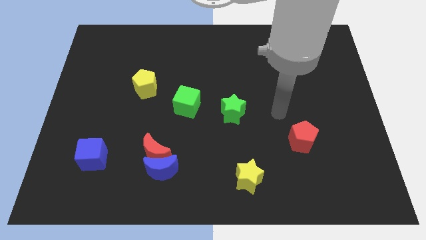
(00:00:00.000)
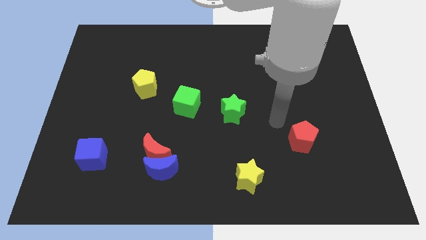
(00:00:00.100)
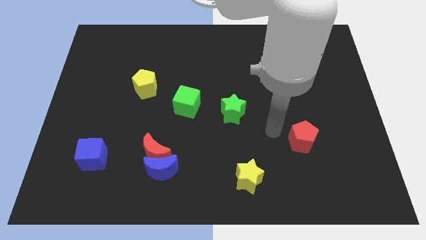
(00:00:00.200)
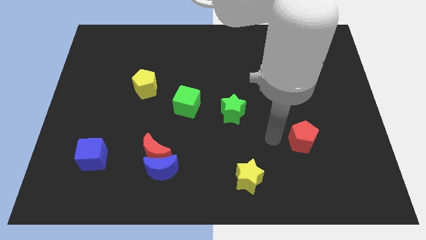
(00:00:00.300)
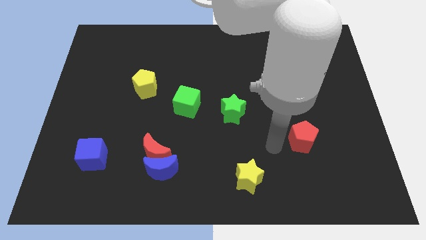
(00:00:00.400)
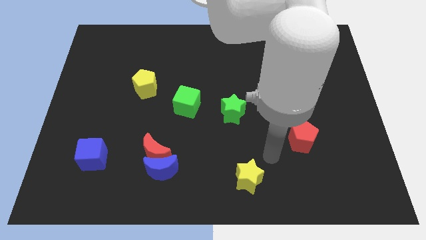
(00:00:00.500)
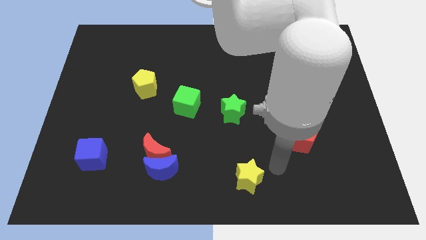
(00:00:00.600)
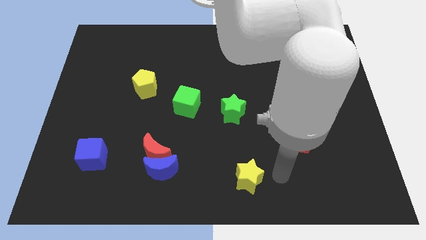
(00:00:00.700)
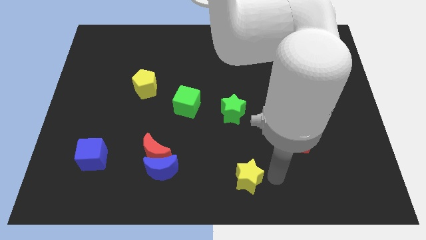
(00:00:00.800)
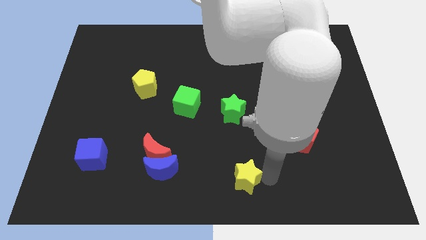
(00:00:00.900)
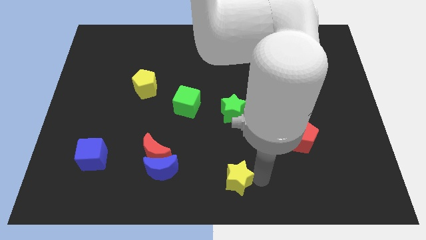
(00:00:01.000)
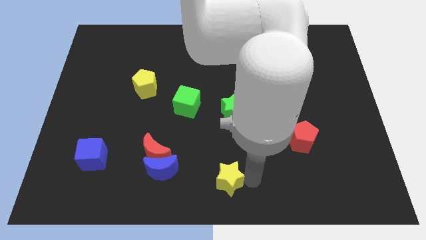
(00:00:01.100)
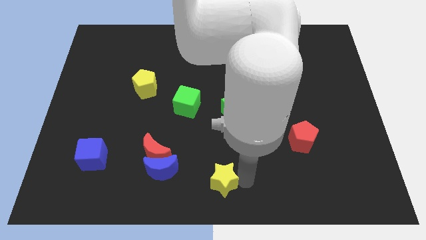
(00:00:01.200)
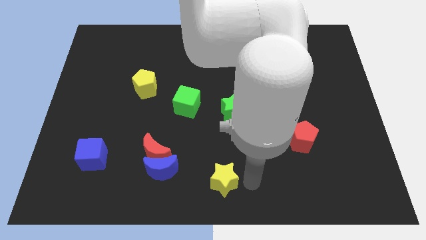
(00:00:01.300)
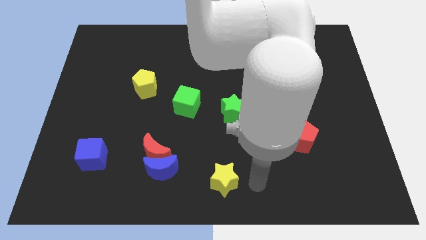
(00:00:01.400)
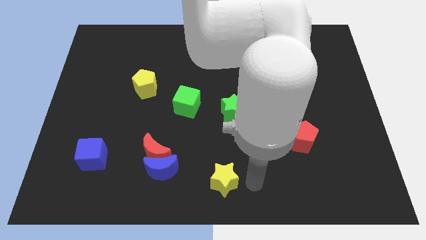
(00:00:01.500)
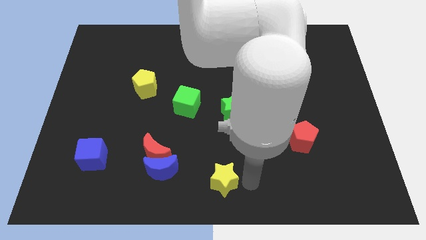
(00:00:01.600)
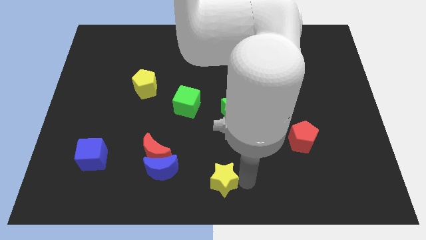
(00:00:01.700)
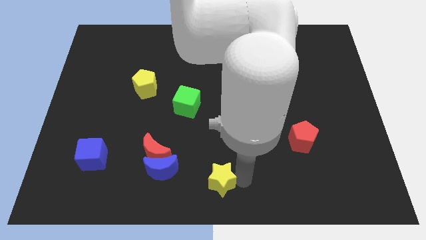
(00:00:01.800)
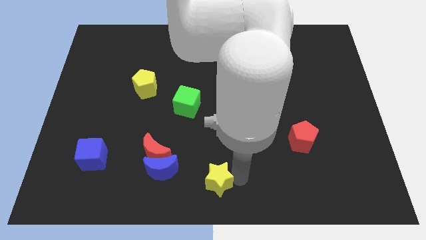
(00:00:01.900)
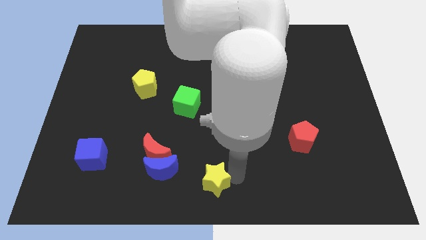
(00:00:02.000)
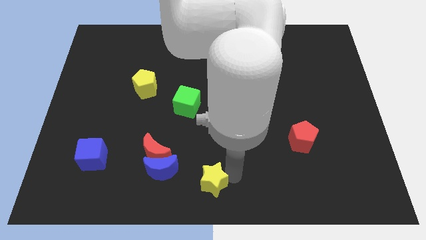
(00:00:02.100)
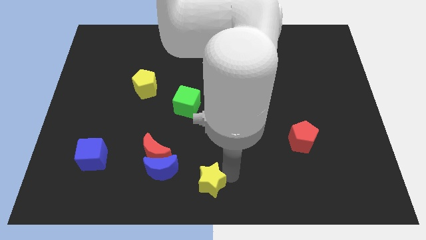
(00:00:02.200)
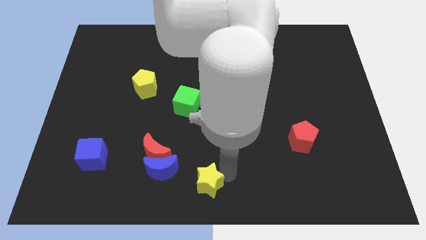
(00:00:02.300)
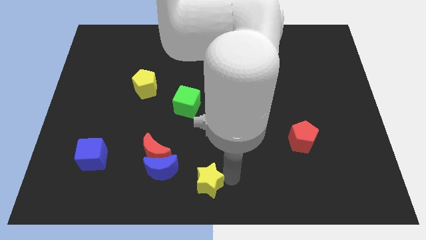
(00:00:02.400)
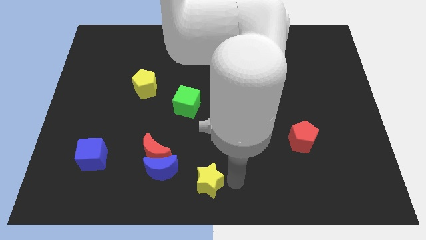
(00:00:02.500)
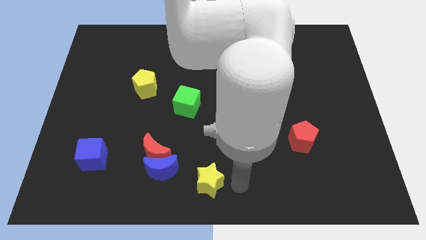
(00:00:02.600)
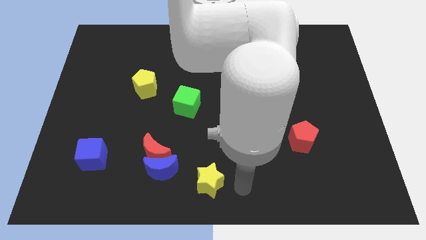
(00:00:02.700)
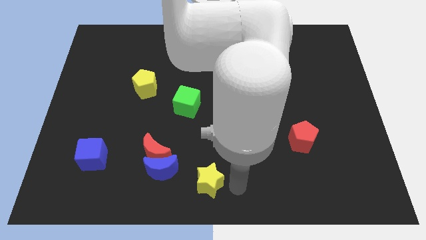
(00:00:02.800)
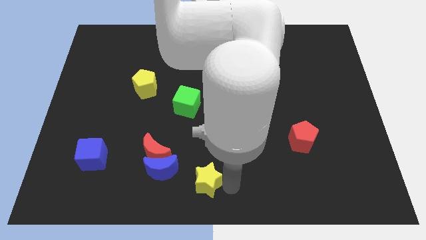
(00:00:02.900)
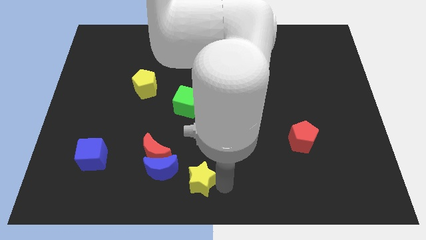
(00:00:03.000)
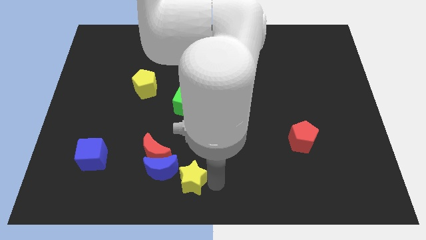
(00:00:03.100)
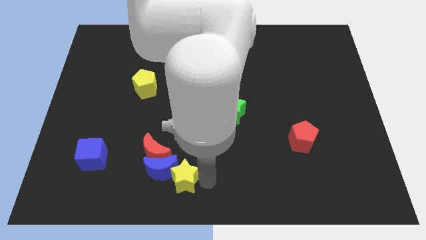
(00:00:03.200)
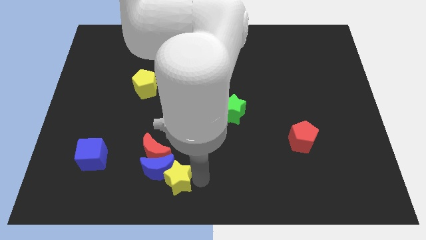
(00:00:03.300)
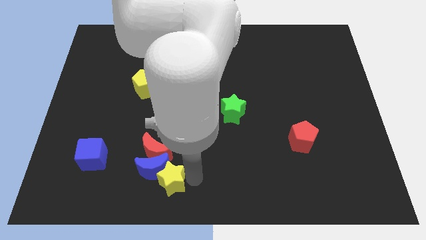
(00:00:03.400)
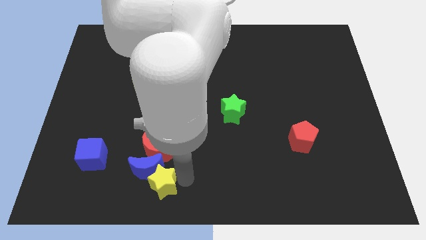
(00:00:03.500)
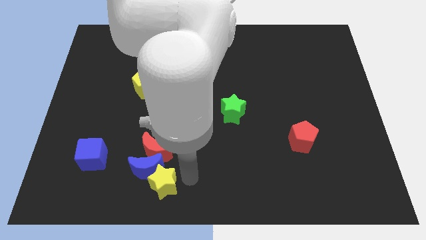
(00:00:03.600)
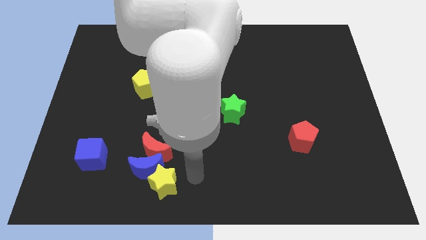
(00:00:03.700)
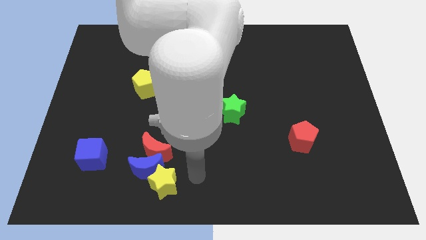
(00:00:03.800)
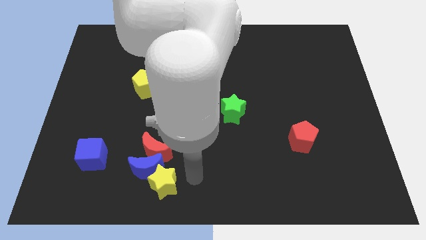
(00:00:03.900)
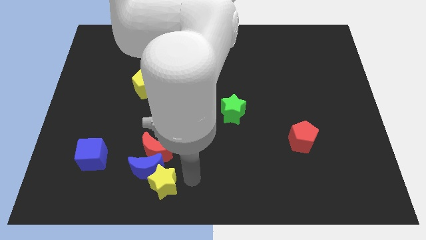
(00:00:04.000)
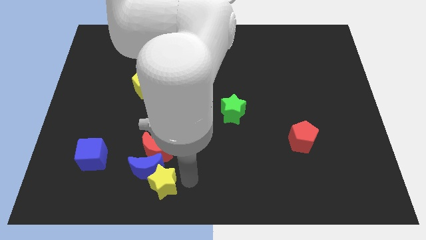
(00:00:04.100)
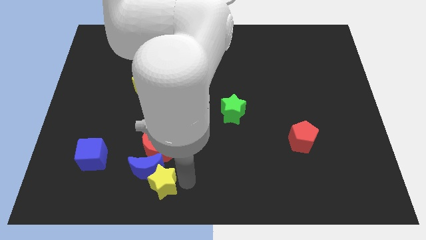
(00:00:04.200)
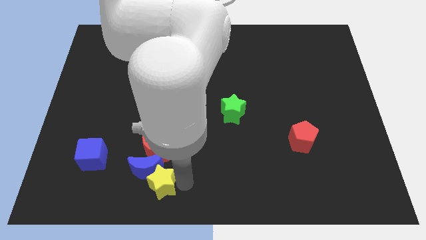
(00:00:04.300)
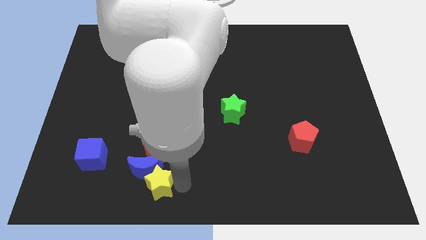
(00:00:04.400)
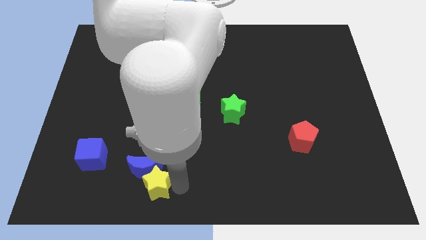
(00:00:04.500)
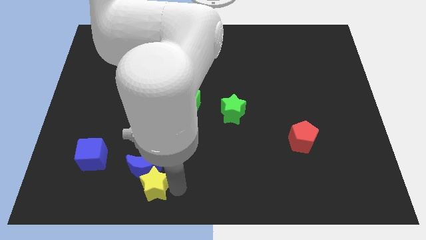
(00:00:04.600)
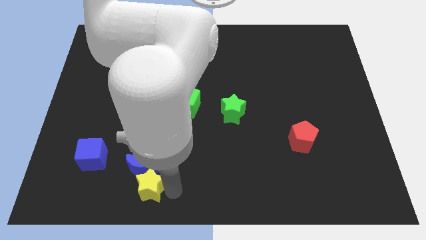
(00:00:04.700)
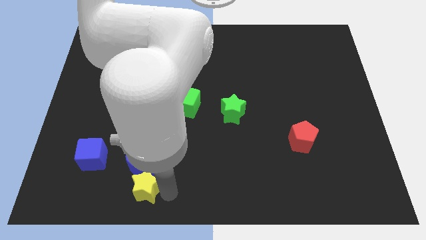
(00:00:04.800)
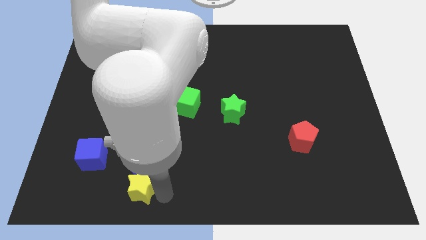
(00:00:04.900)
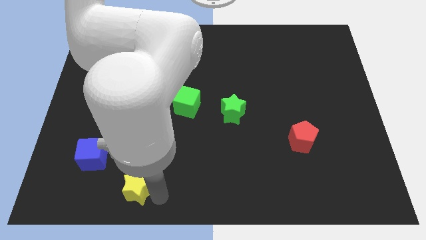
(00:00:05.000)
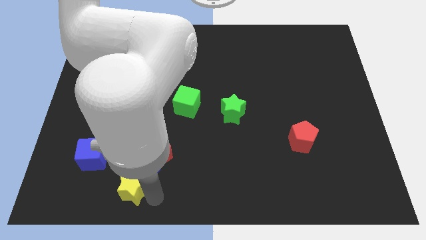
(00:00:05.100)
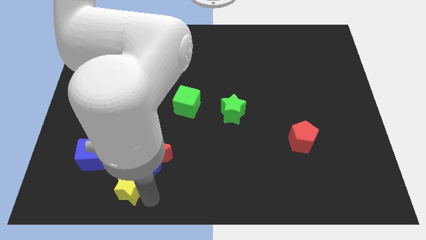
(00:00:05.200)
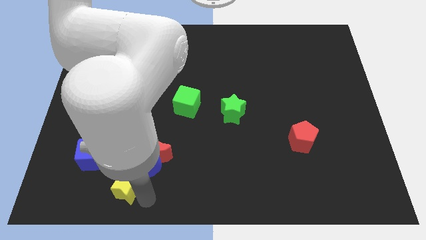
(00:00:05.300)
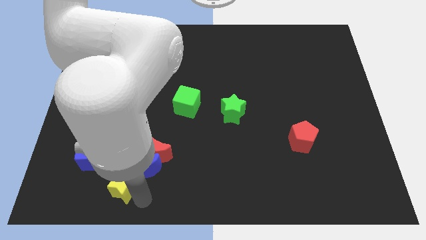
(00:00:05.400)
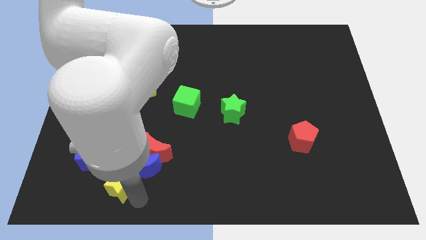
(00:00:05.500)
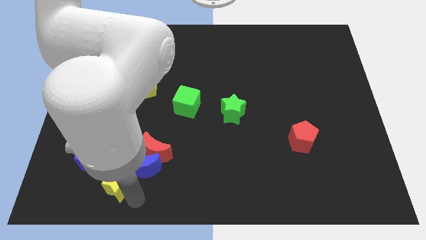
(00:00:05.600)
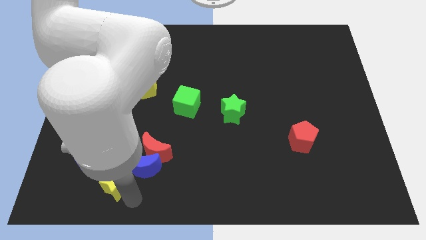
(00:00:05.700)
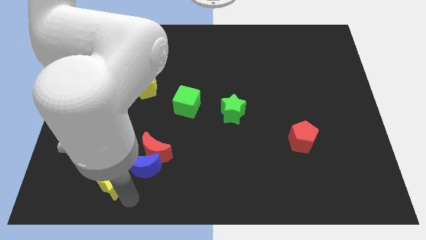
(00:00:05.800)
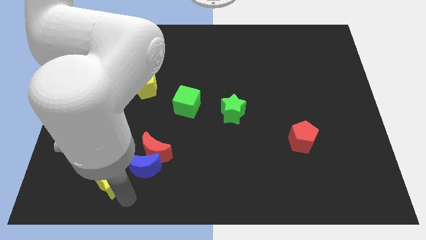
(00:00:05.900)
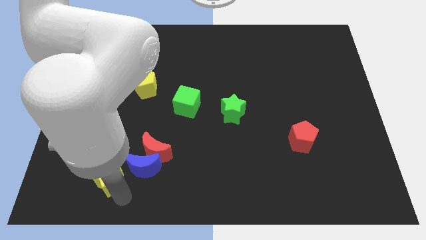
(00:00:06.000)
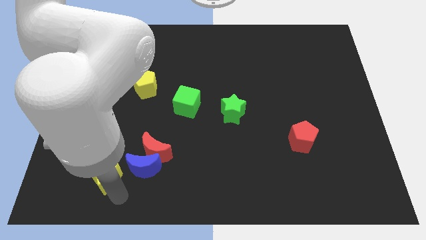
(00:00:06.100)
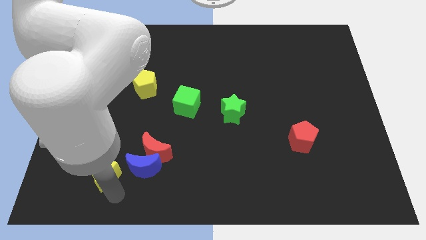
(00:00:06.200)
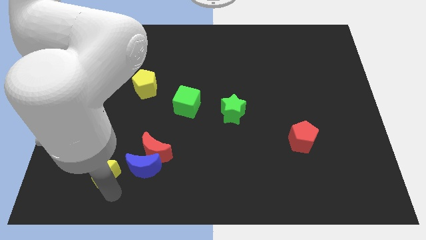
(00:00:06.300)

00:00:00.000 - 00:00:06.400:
move the yellow star towards the blue cube

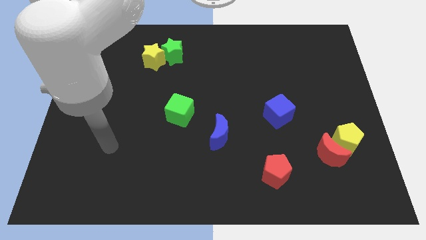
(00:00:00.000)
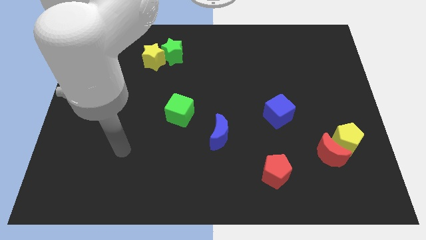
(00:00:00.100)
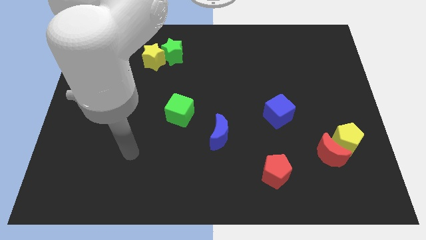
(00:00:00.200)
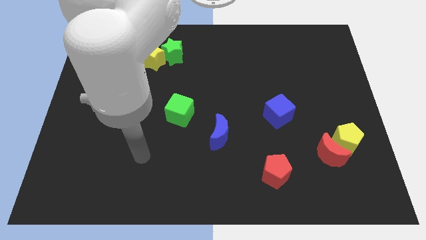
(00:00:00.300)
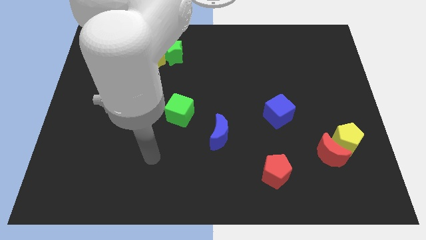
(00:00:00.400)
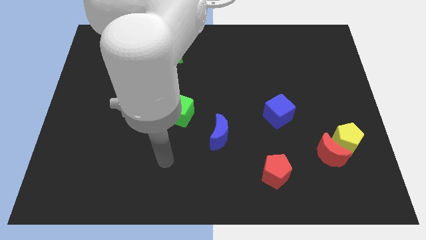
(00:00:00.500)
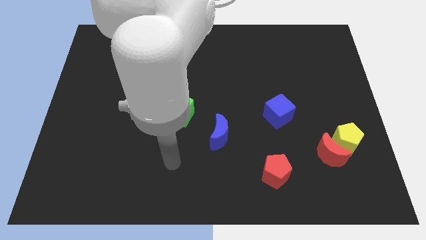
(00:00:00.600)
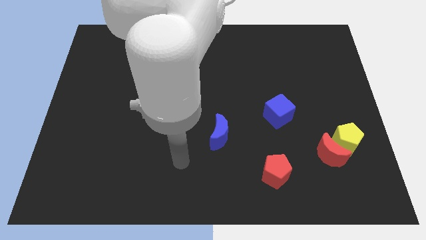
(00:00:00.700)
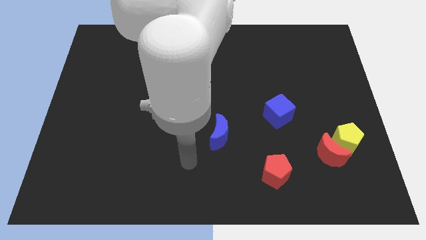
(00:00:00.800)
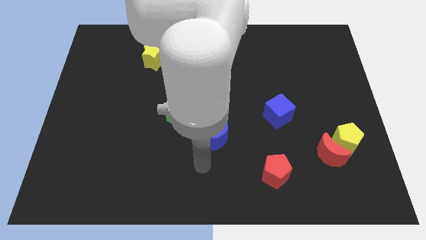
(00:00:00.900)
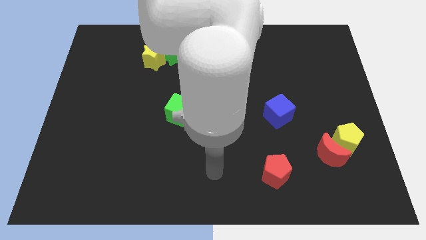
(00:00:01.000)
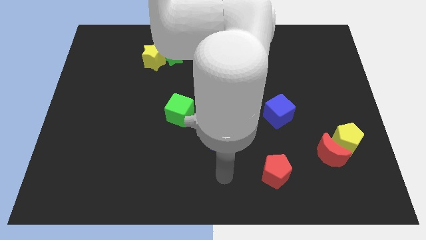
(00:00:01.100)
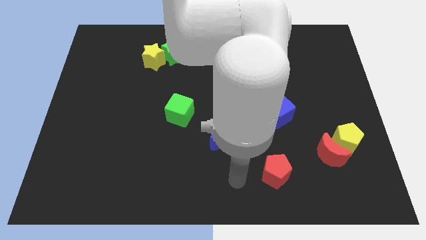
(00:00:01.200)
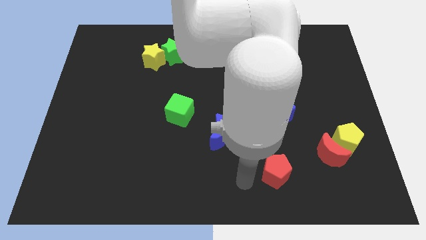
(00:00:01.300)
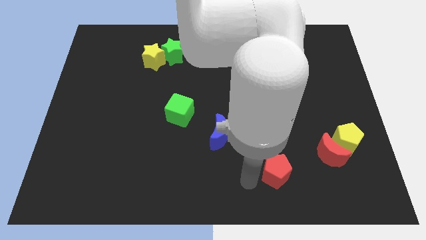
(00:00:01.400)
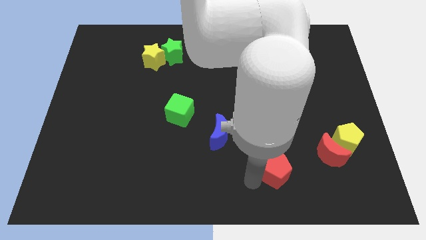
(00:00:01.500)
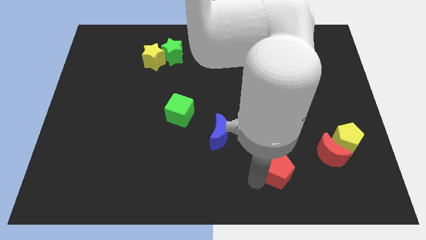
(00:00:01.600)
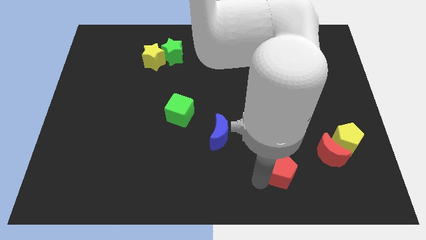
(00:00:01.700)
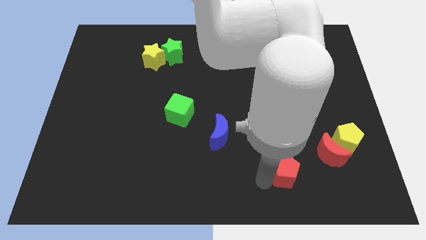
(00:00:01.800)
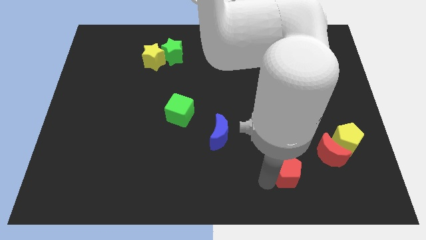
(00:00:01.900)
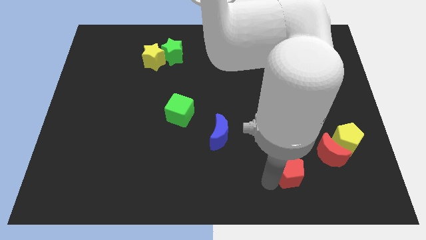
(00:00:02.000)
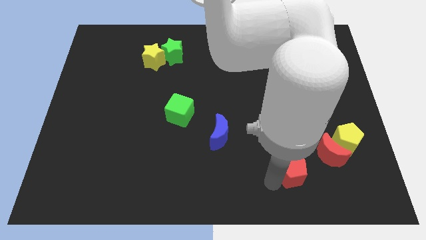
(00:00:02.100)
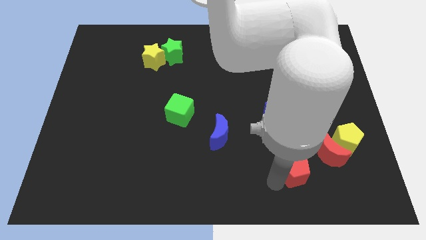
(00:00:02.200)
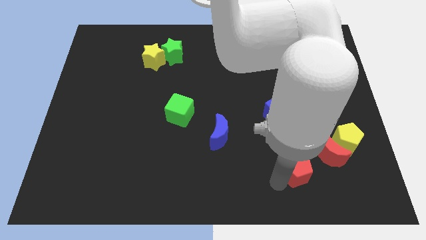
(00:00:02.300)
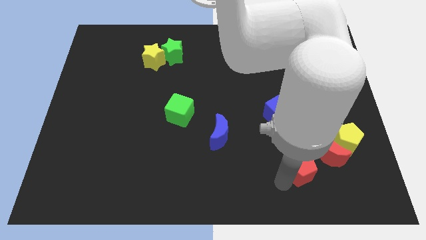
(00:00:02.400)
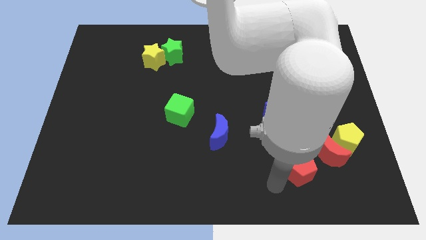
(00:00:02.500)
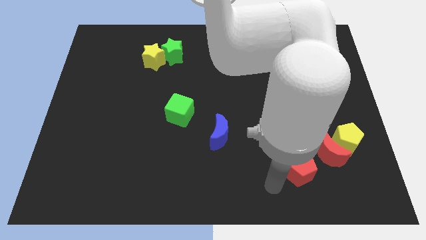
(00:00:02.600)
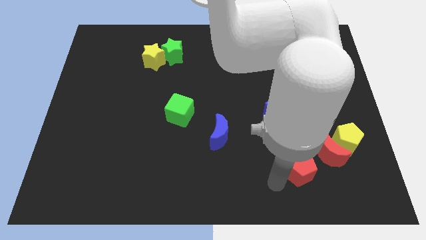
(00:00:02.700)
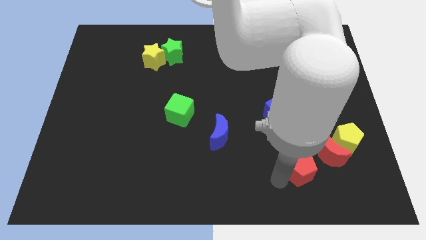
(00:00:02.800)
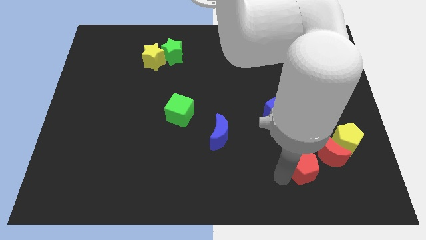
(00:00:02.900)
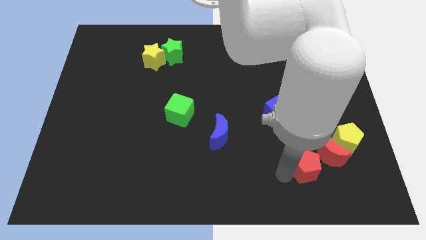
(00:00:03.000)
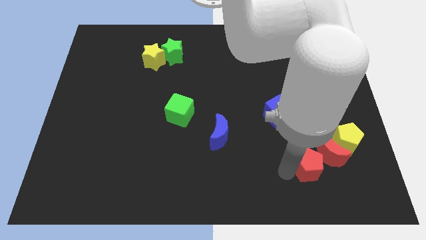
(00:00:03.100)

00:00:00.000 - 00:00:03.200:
put the red pentagon close to the red moon
